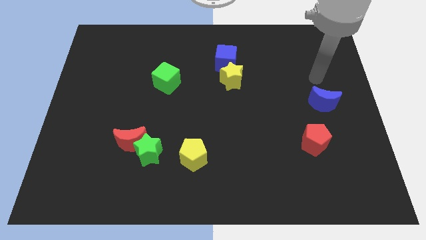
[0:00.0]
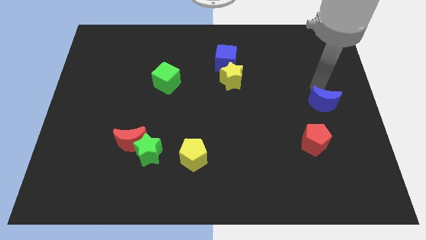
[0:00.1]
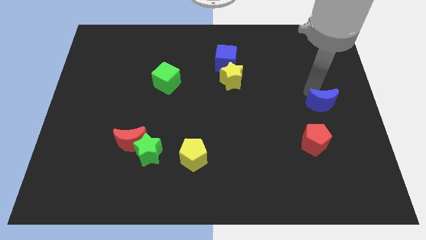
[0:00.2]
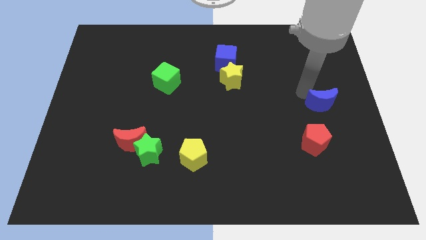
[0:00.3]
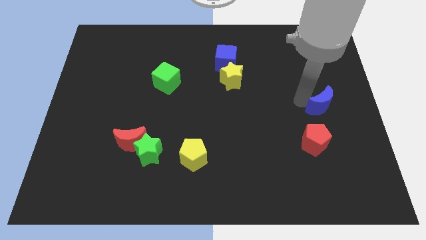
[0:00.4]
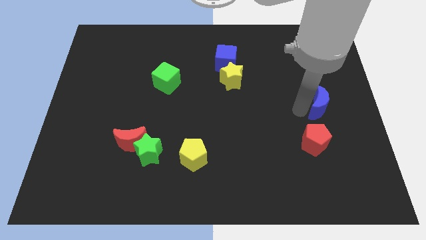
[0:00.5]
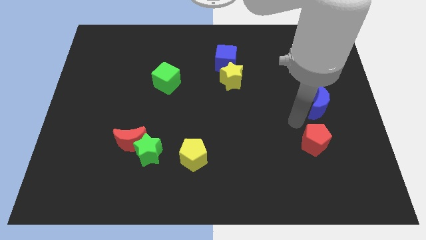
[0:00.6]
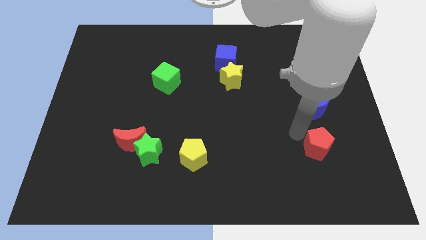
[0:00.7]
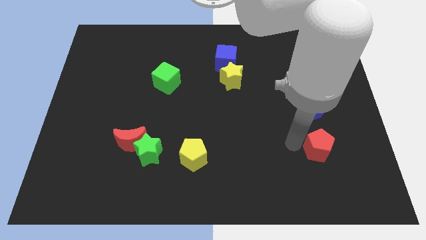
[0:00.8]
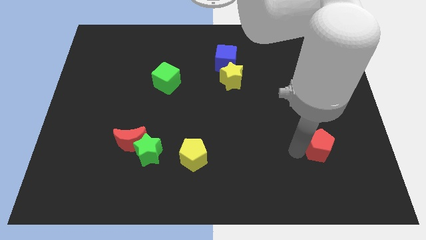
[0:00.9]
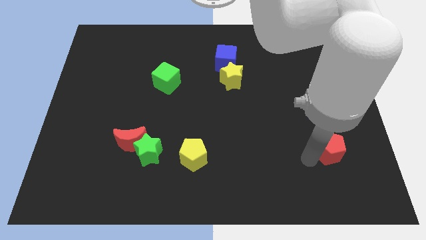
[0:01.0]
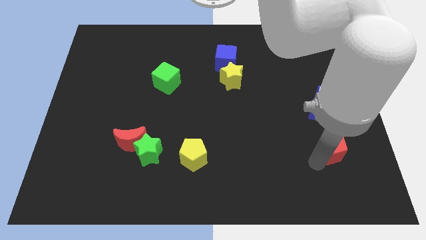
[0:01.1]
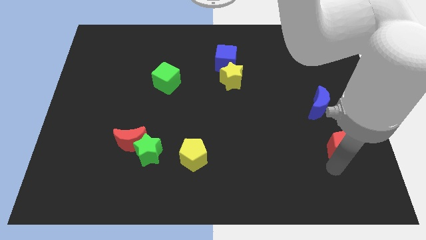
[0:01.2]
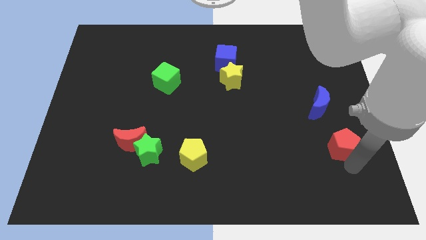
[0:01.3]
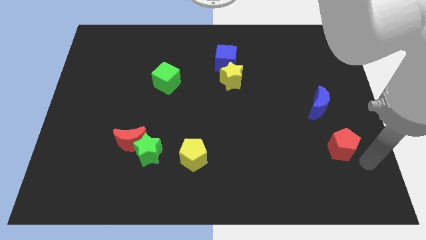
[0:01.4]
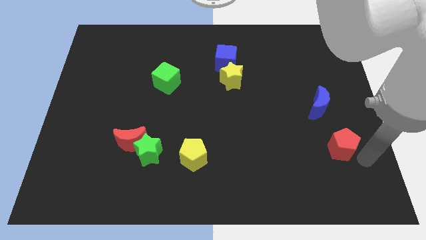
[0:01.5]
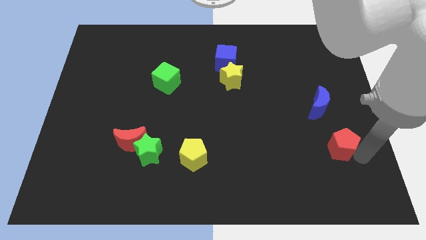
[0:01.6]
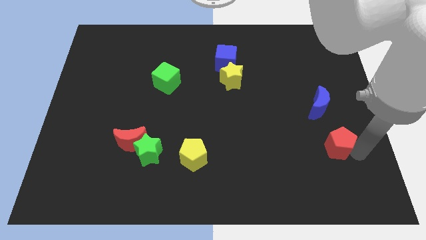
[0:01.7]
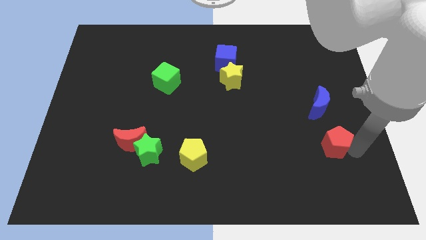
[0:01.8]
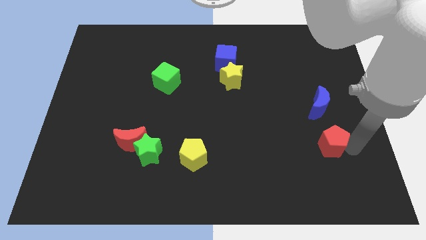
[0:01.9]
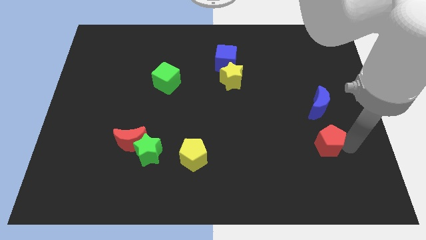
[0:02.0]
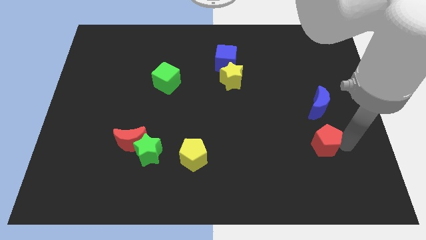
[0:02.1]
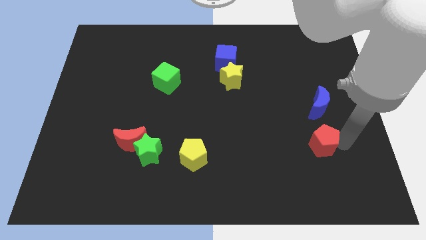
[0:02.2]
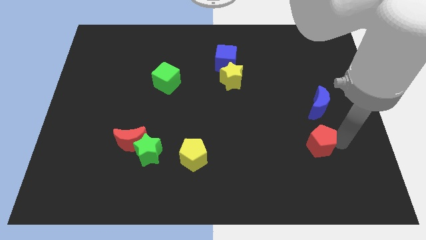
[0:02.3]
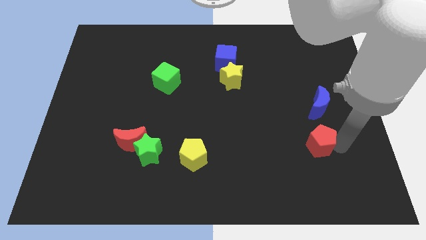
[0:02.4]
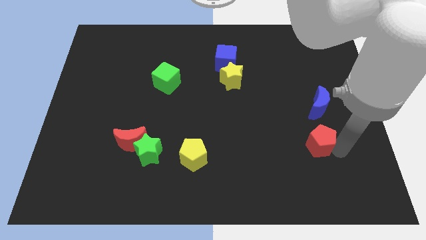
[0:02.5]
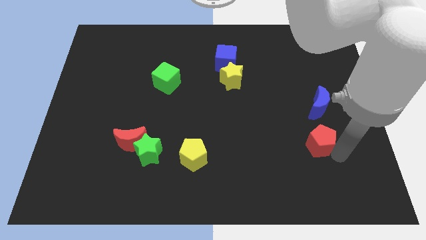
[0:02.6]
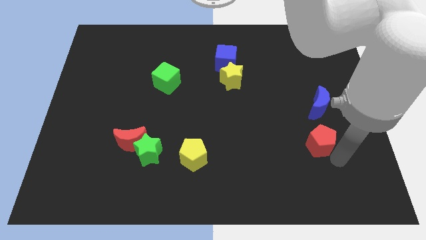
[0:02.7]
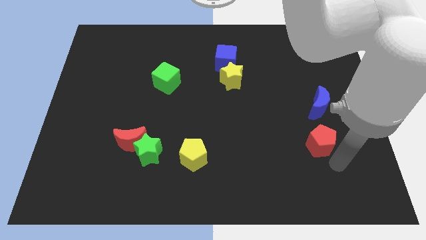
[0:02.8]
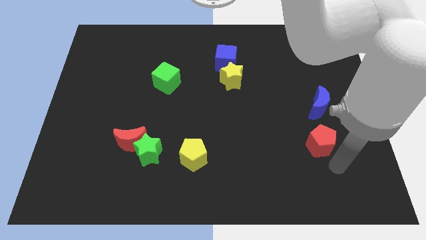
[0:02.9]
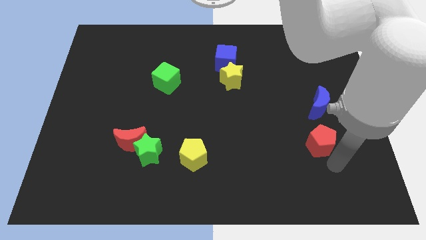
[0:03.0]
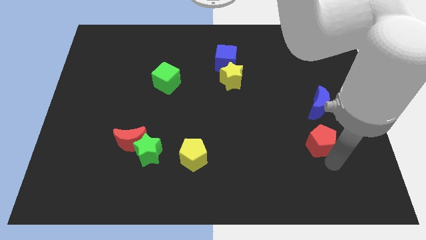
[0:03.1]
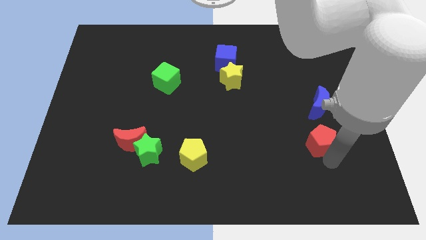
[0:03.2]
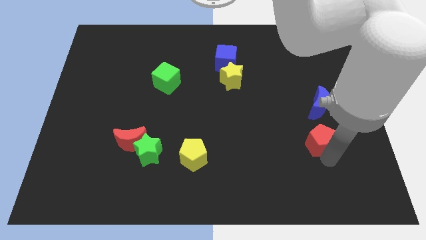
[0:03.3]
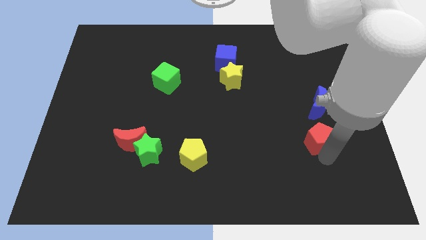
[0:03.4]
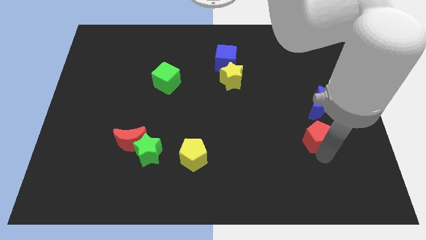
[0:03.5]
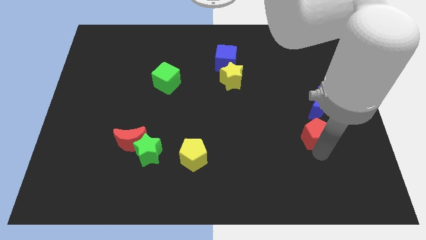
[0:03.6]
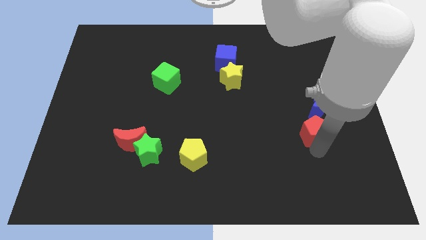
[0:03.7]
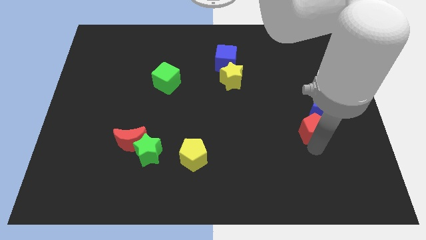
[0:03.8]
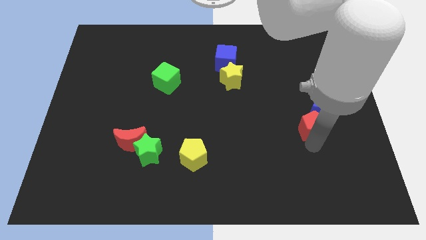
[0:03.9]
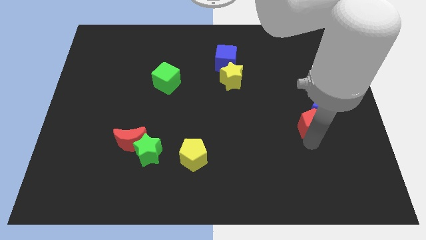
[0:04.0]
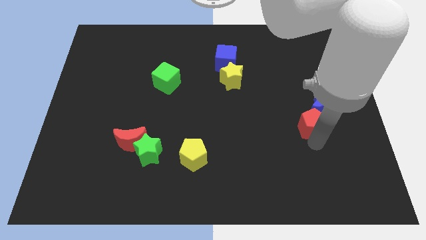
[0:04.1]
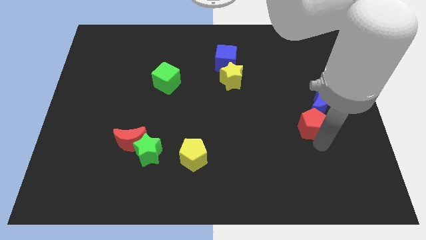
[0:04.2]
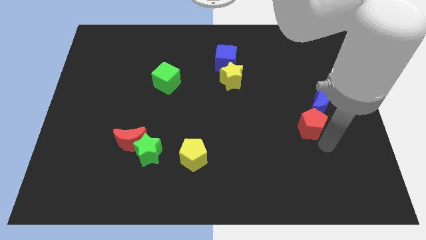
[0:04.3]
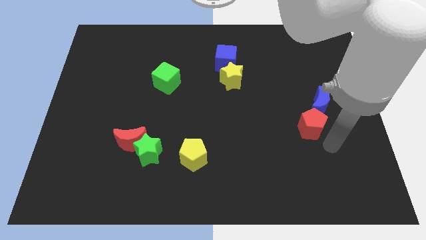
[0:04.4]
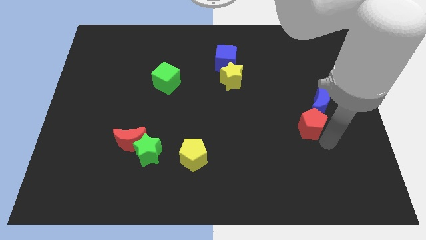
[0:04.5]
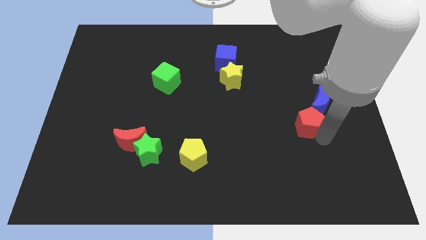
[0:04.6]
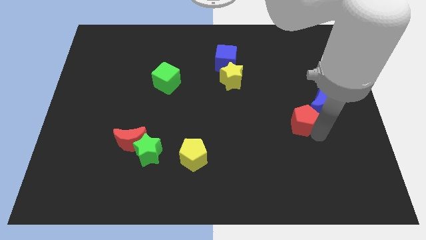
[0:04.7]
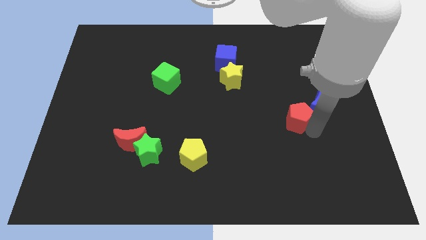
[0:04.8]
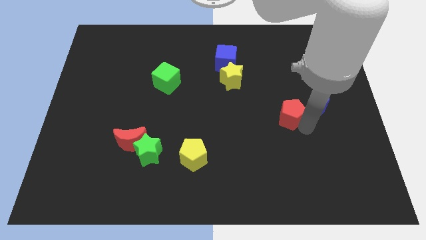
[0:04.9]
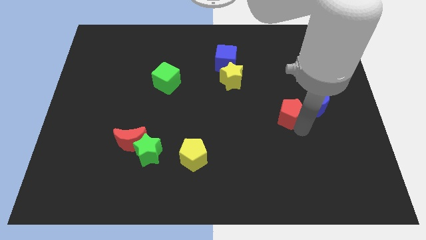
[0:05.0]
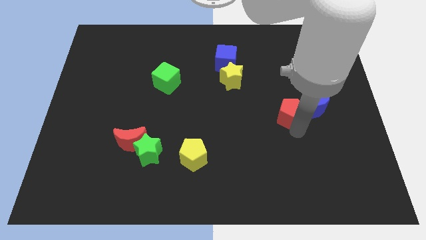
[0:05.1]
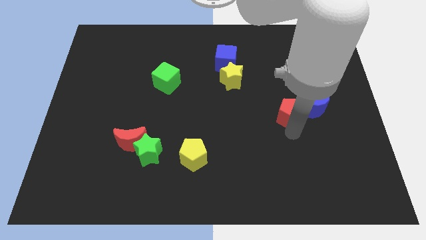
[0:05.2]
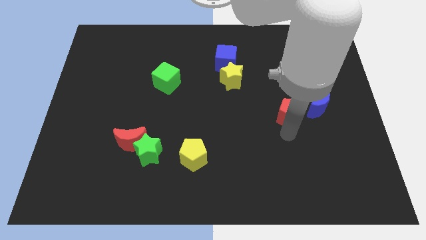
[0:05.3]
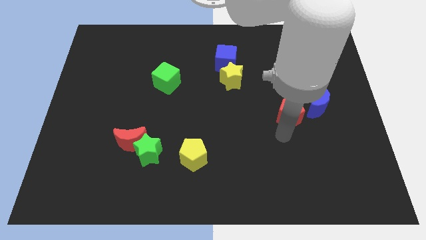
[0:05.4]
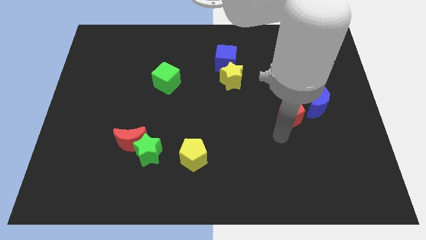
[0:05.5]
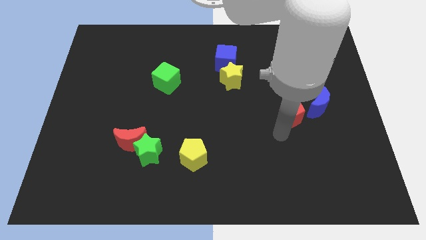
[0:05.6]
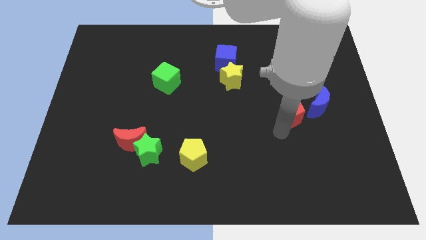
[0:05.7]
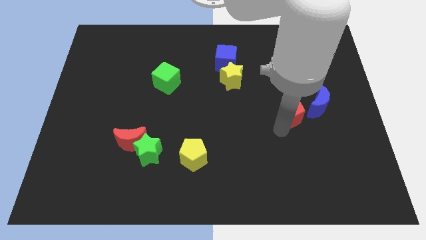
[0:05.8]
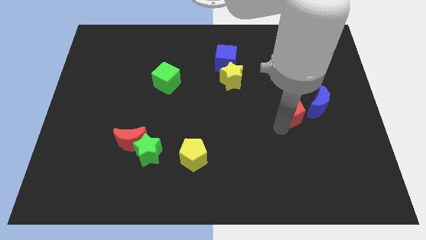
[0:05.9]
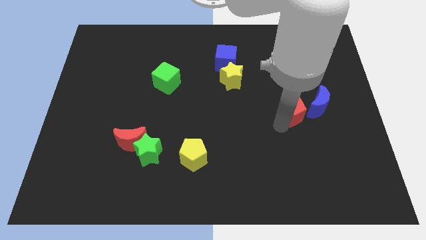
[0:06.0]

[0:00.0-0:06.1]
push the red pentagon up a bit

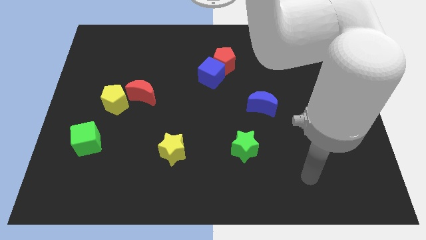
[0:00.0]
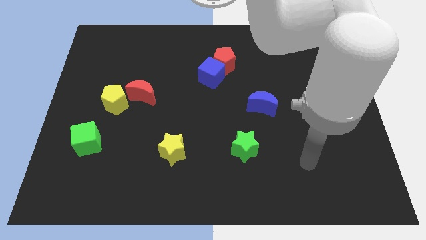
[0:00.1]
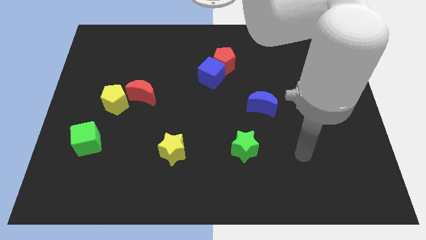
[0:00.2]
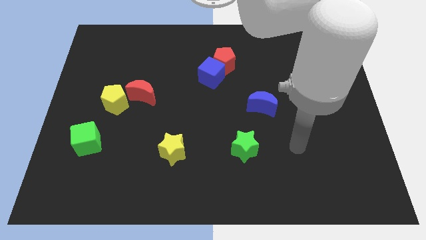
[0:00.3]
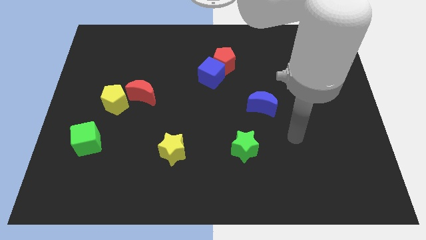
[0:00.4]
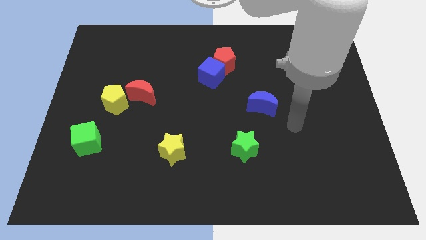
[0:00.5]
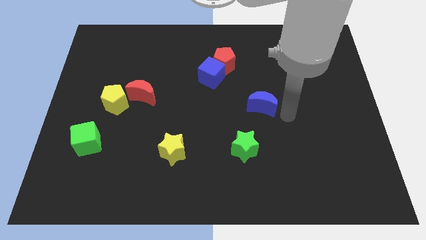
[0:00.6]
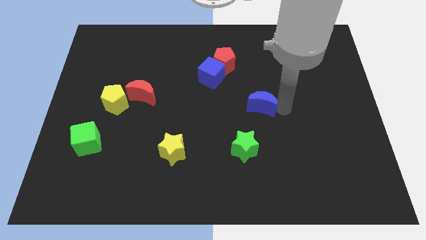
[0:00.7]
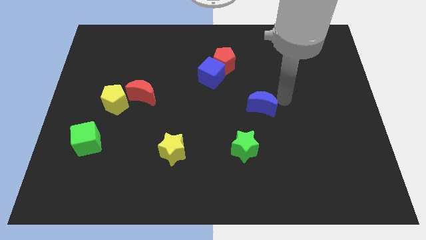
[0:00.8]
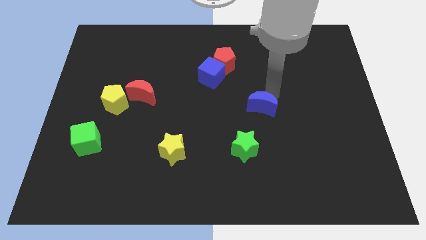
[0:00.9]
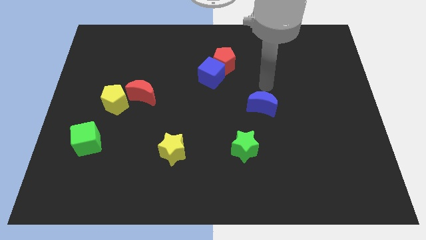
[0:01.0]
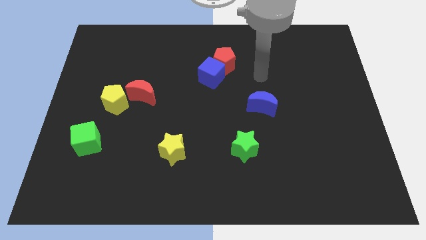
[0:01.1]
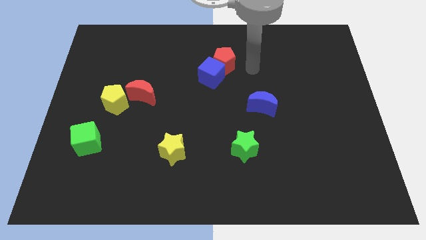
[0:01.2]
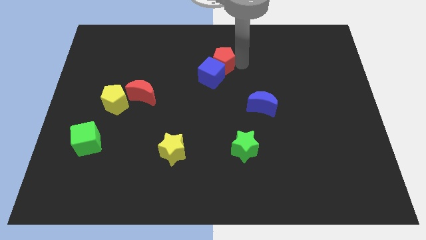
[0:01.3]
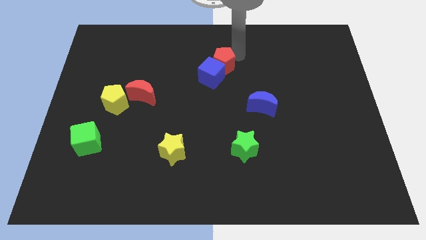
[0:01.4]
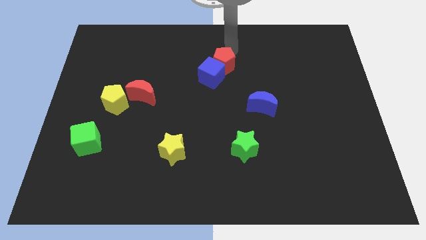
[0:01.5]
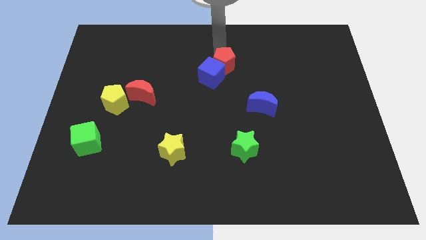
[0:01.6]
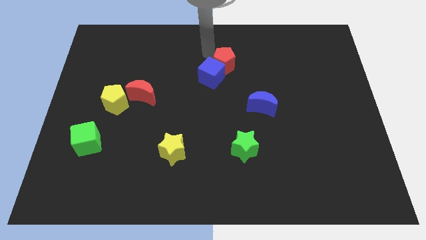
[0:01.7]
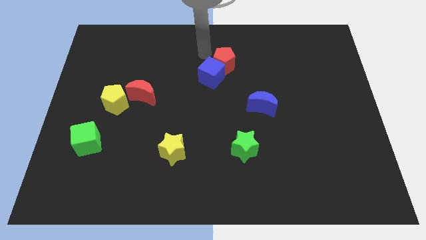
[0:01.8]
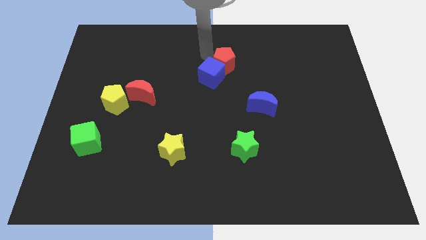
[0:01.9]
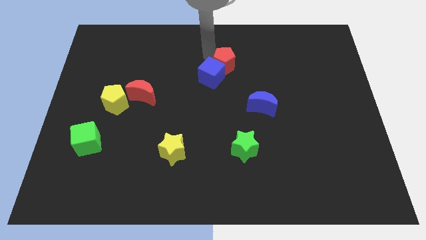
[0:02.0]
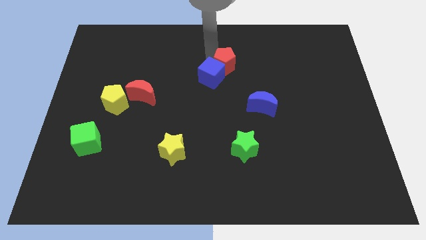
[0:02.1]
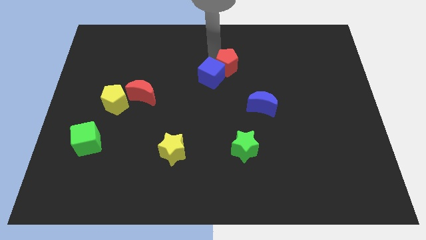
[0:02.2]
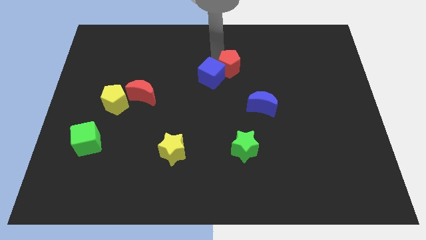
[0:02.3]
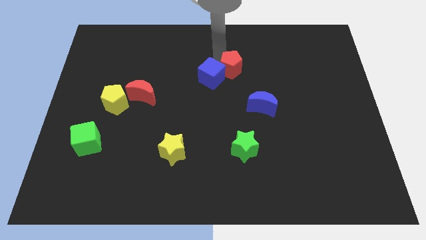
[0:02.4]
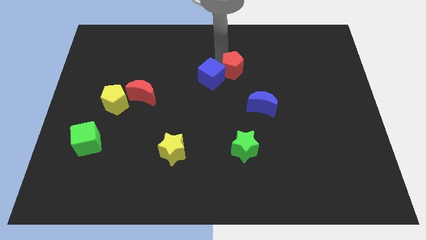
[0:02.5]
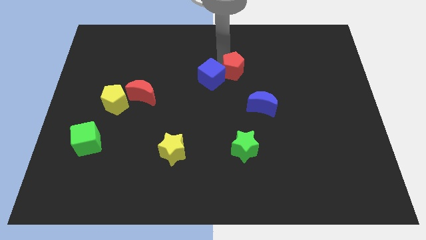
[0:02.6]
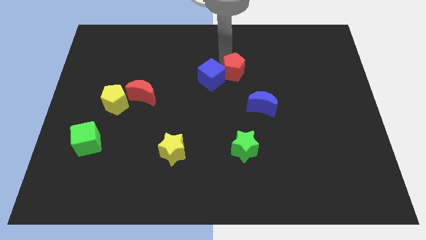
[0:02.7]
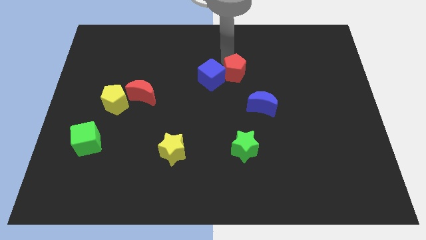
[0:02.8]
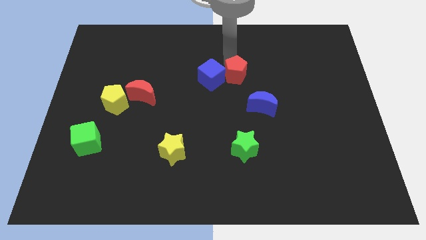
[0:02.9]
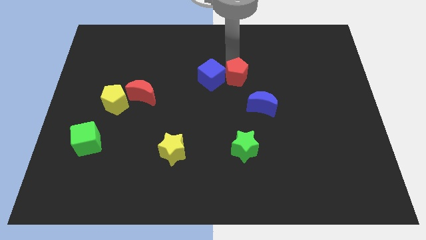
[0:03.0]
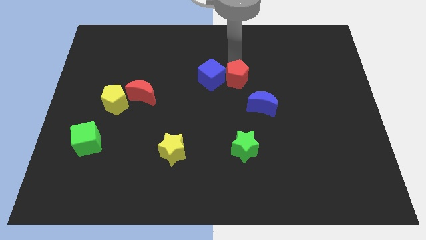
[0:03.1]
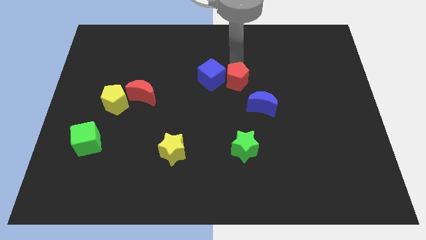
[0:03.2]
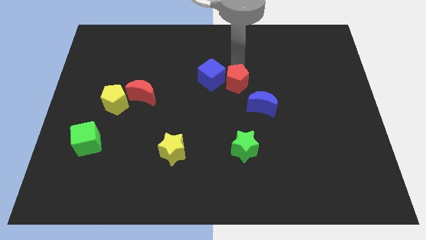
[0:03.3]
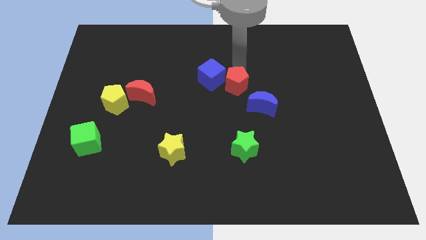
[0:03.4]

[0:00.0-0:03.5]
slide the red pentagon down and right a little
